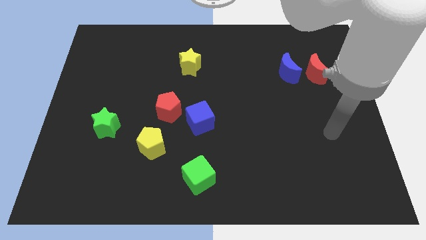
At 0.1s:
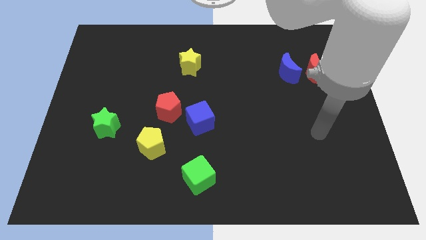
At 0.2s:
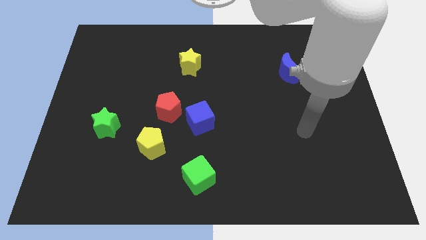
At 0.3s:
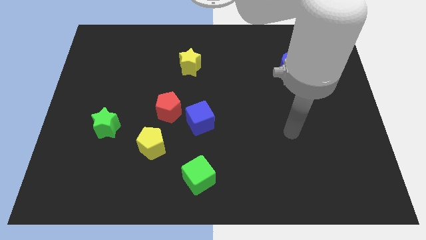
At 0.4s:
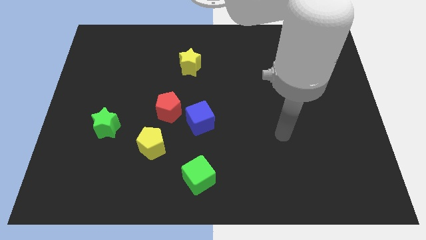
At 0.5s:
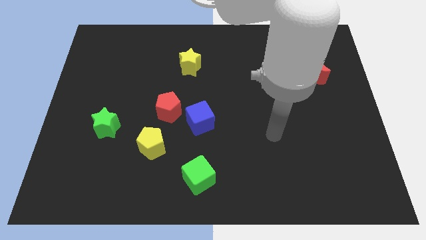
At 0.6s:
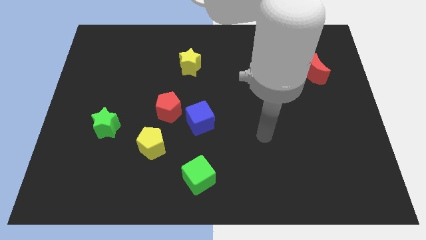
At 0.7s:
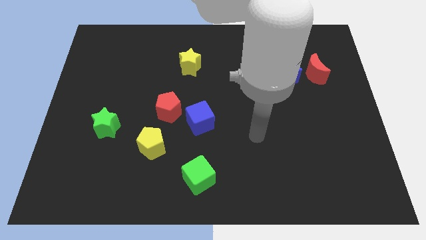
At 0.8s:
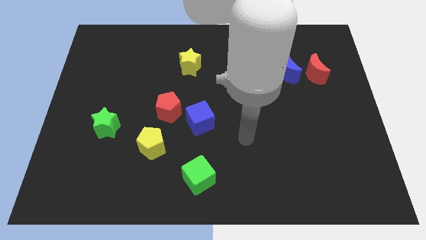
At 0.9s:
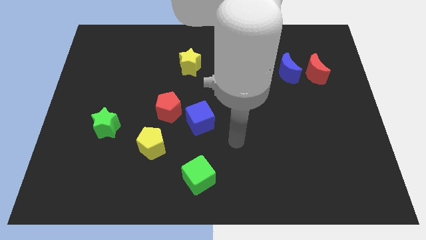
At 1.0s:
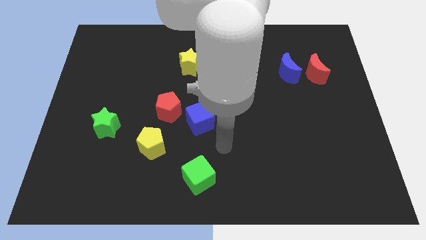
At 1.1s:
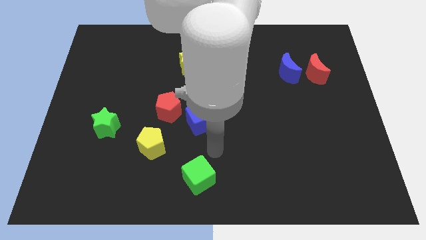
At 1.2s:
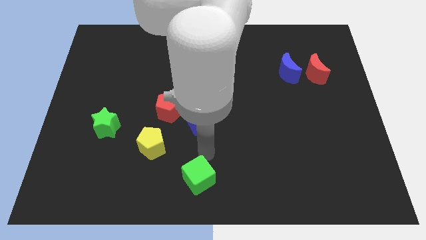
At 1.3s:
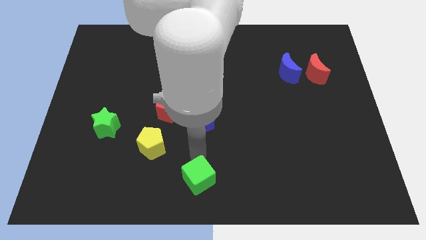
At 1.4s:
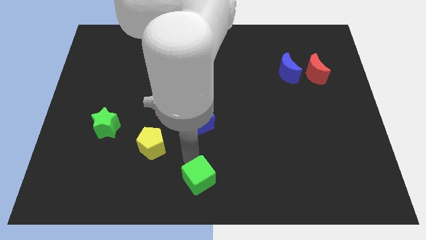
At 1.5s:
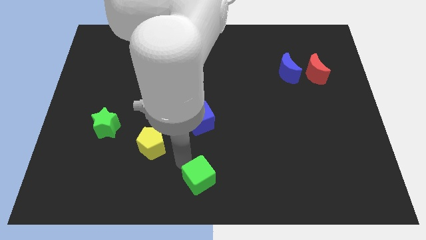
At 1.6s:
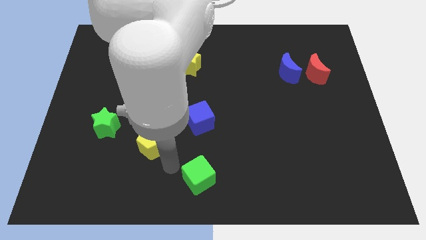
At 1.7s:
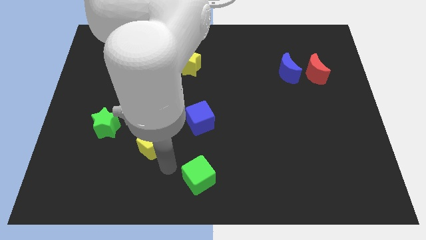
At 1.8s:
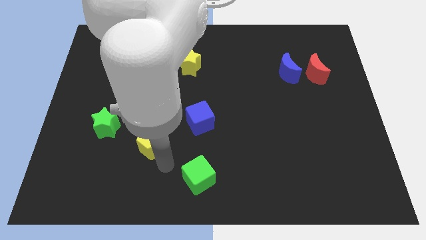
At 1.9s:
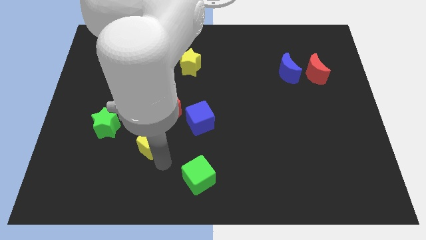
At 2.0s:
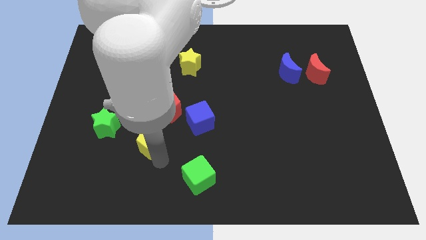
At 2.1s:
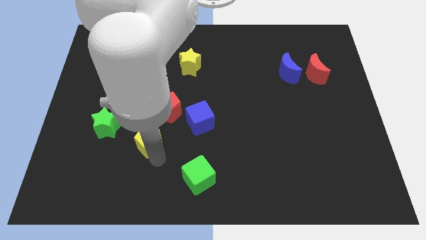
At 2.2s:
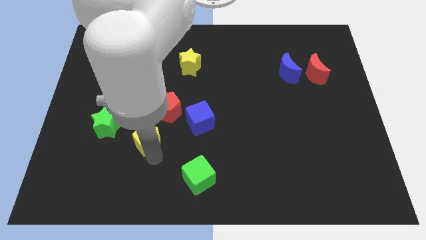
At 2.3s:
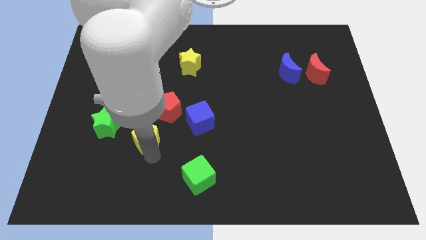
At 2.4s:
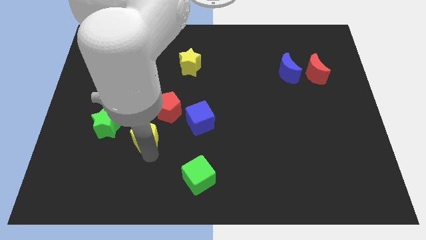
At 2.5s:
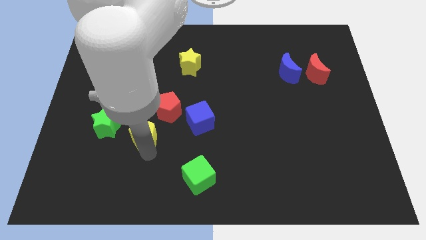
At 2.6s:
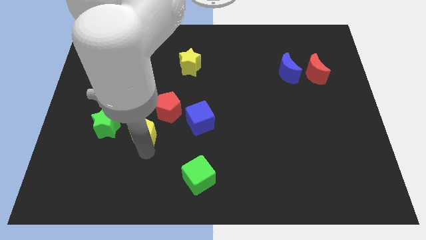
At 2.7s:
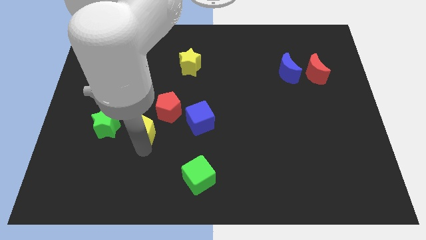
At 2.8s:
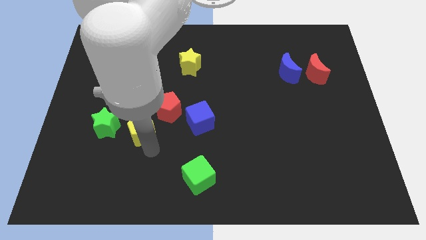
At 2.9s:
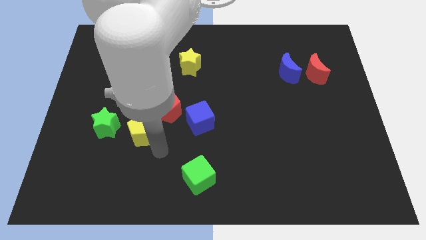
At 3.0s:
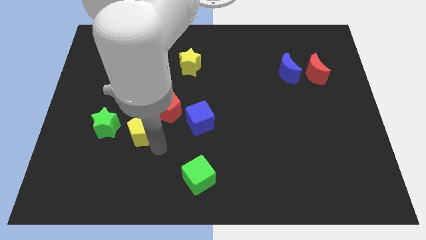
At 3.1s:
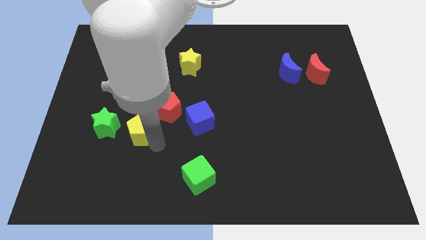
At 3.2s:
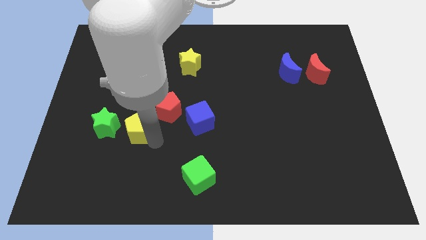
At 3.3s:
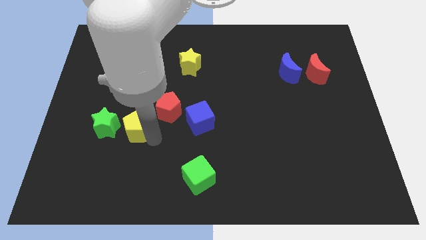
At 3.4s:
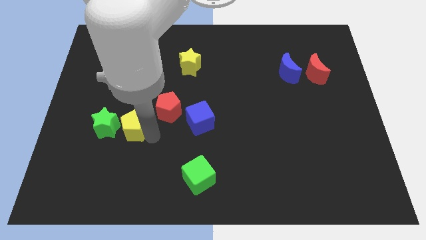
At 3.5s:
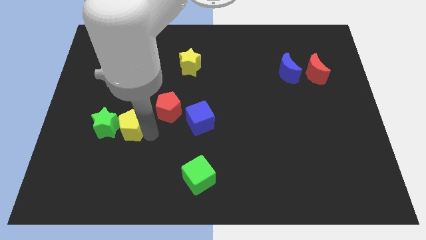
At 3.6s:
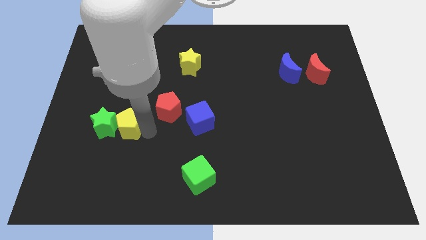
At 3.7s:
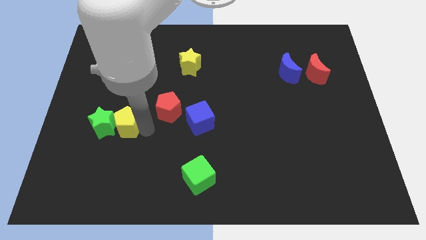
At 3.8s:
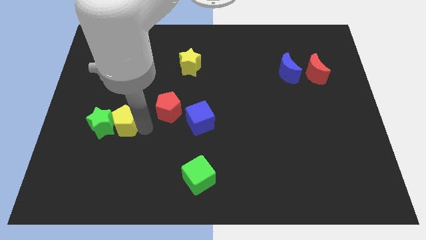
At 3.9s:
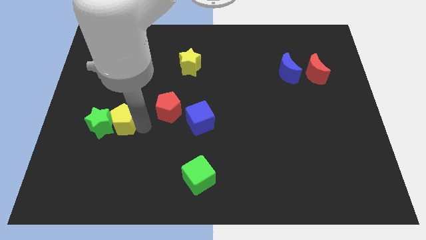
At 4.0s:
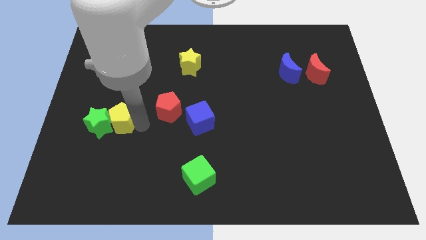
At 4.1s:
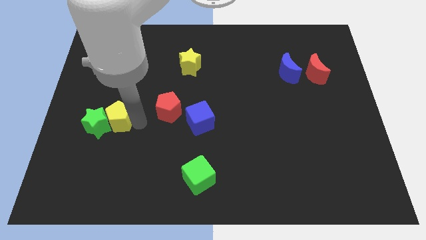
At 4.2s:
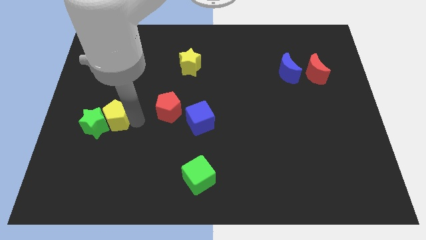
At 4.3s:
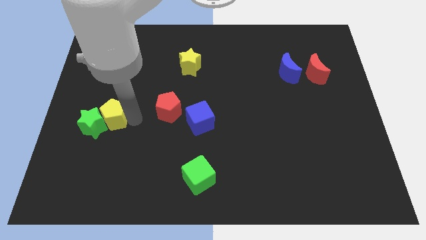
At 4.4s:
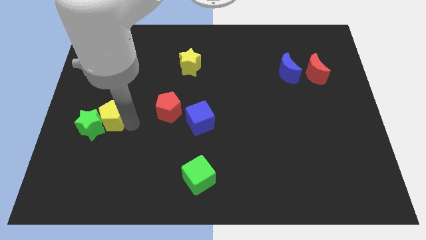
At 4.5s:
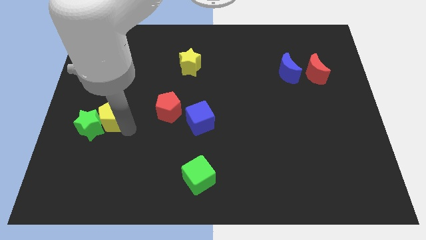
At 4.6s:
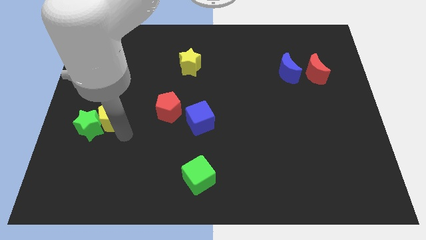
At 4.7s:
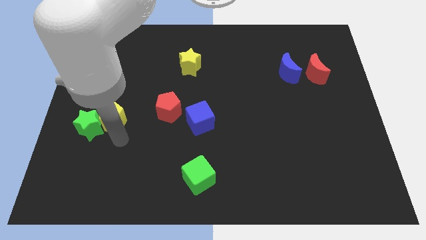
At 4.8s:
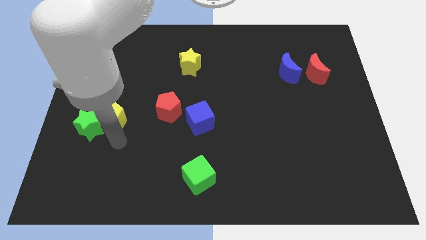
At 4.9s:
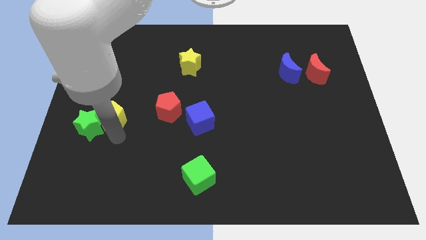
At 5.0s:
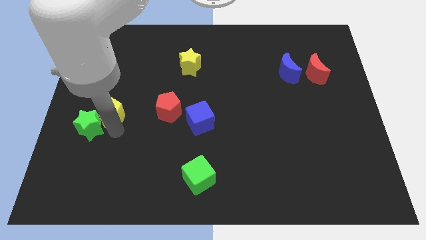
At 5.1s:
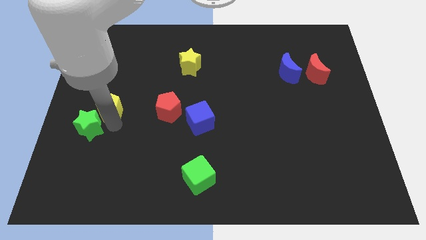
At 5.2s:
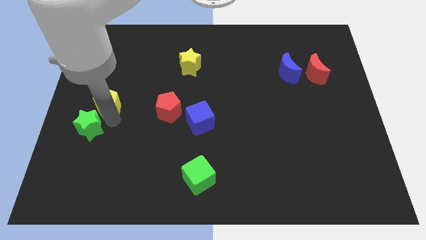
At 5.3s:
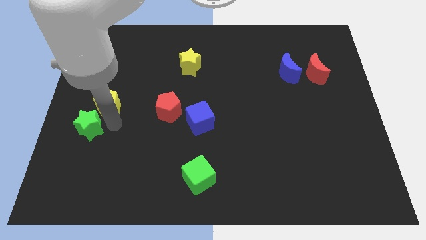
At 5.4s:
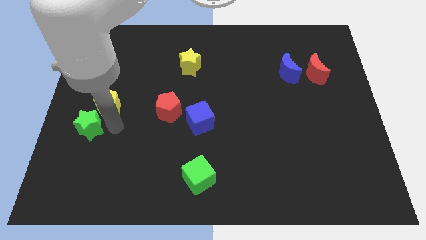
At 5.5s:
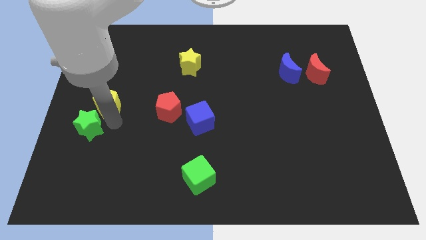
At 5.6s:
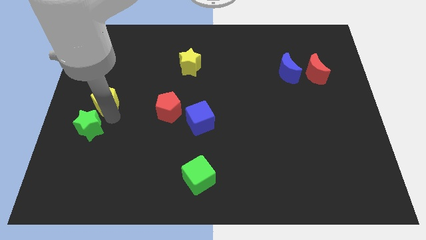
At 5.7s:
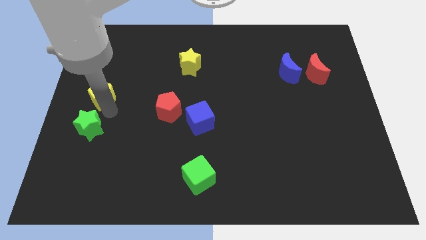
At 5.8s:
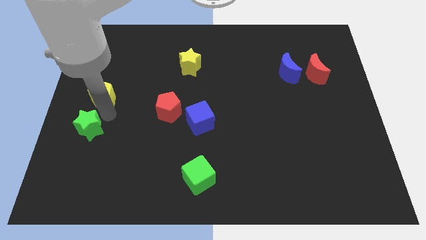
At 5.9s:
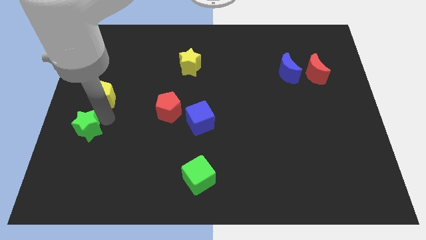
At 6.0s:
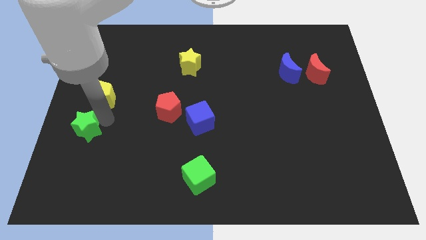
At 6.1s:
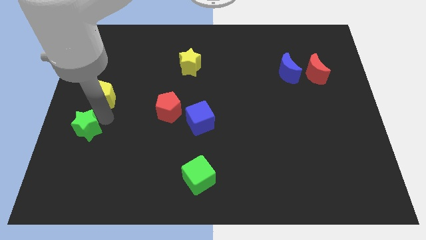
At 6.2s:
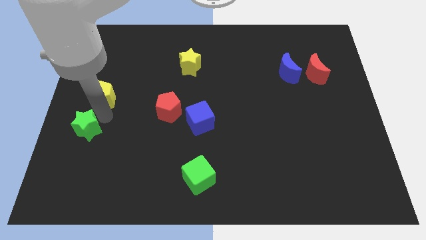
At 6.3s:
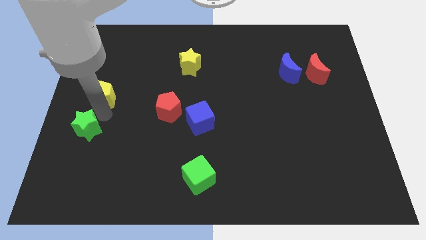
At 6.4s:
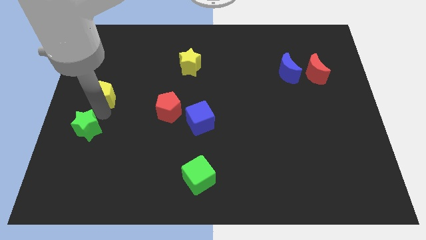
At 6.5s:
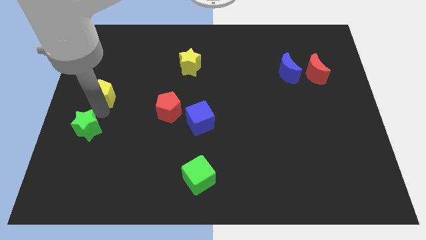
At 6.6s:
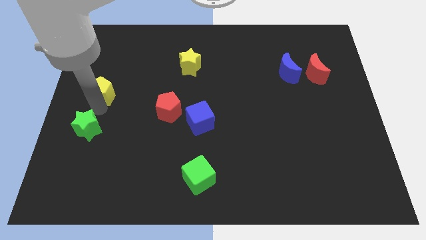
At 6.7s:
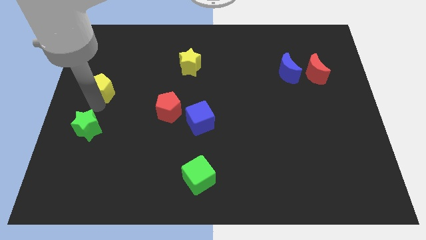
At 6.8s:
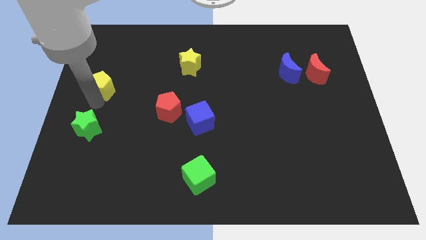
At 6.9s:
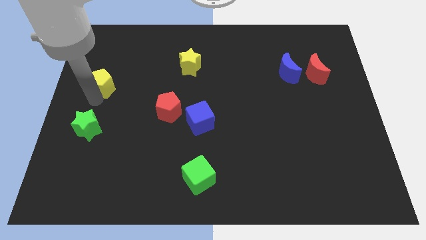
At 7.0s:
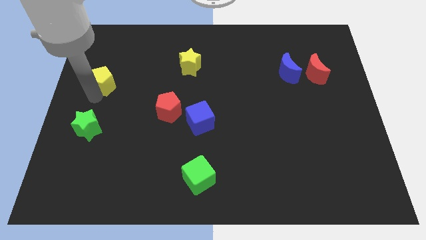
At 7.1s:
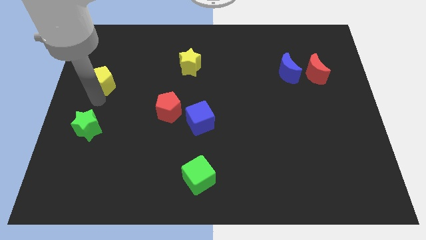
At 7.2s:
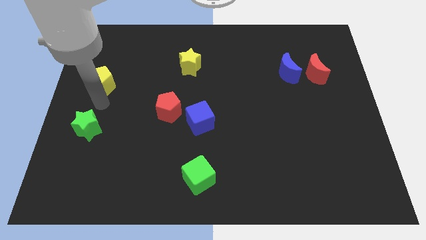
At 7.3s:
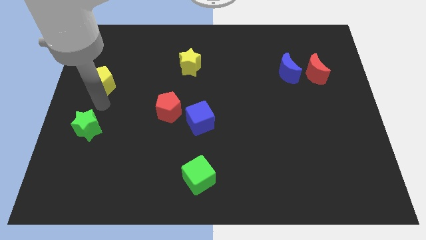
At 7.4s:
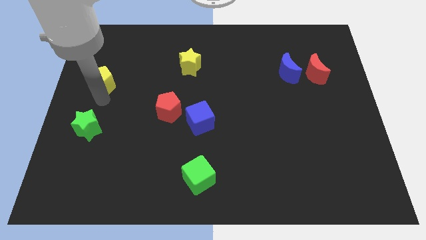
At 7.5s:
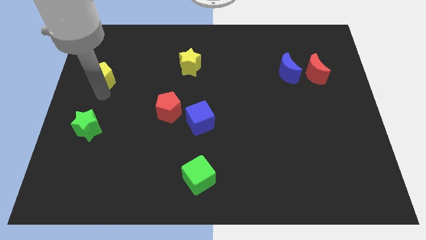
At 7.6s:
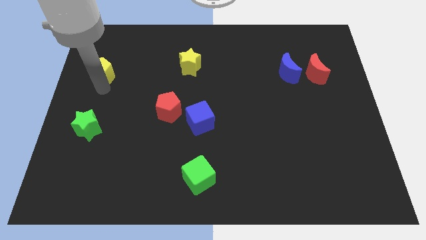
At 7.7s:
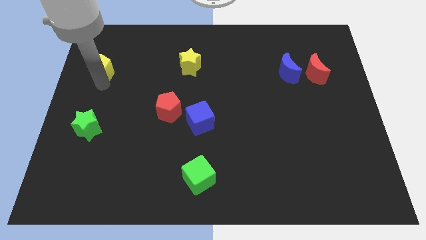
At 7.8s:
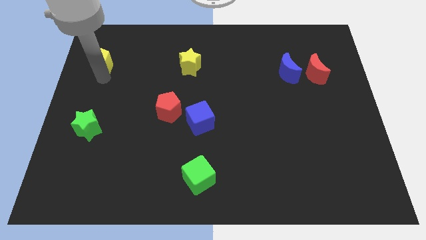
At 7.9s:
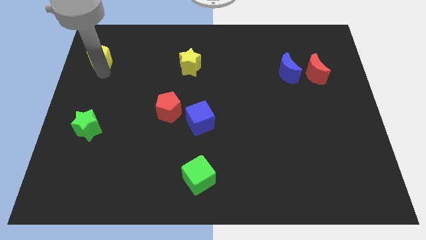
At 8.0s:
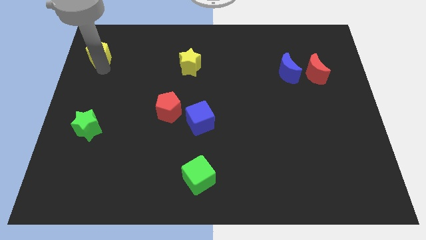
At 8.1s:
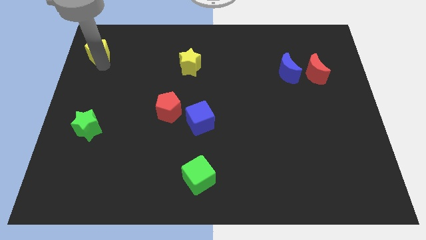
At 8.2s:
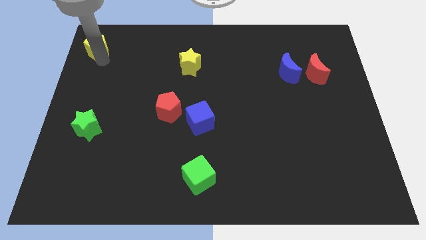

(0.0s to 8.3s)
put the yellow pentagon to the top left of the board
